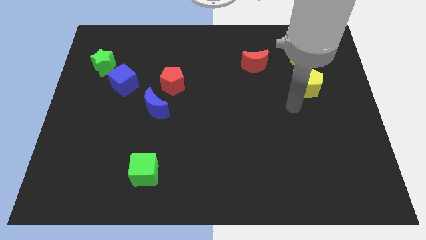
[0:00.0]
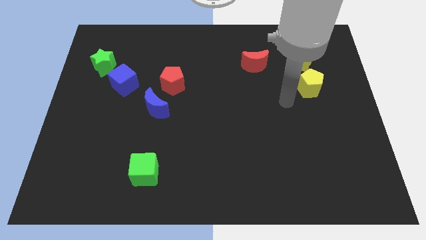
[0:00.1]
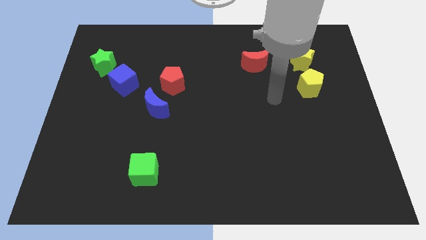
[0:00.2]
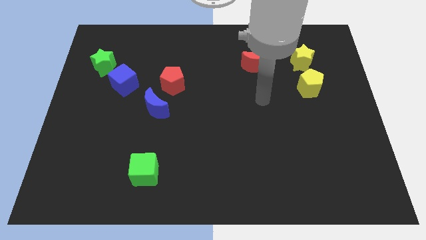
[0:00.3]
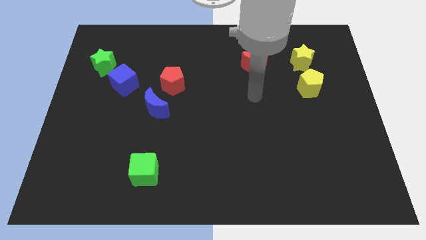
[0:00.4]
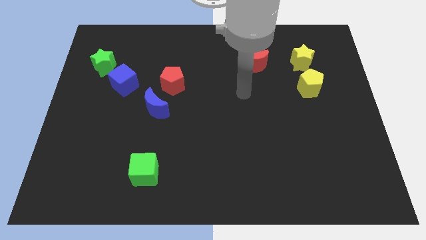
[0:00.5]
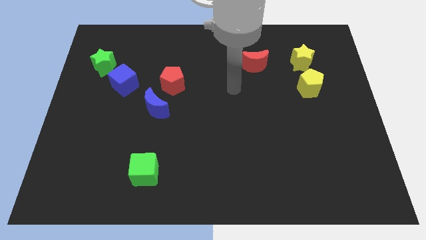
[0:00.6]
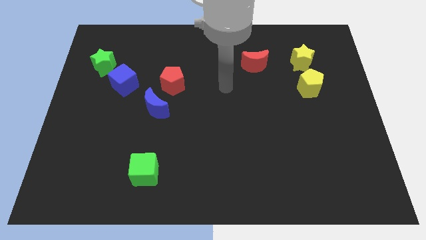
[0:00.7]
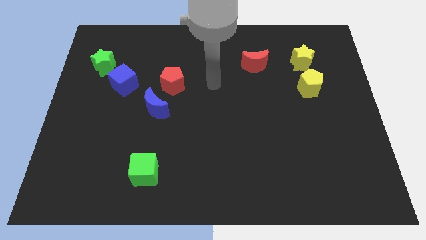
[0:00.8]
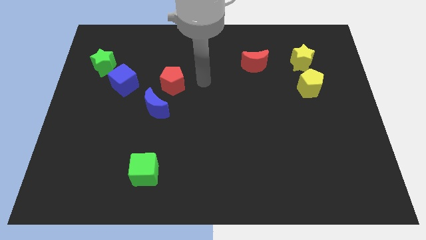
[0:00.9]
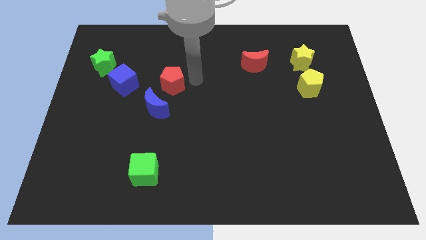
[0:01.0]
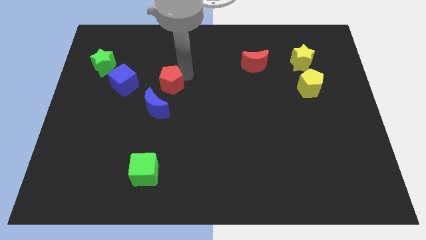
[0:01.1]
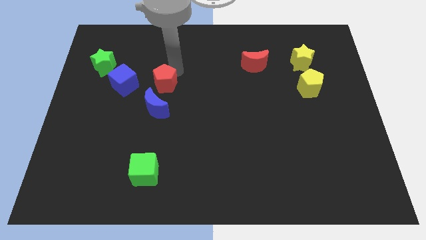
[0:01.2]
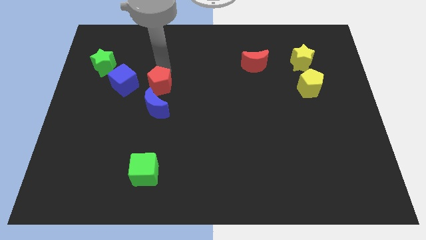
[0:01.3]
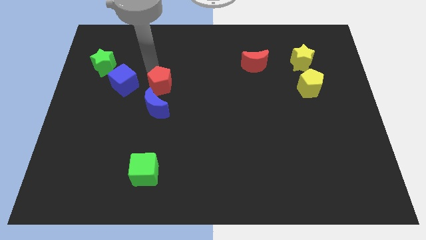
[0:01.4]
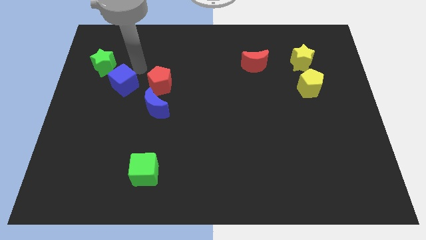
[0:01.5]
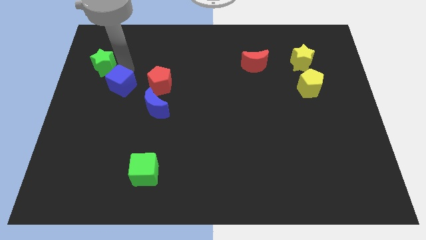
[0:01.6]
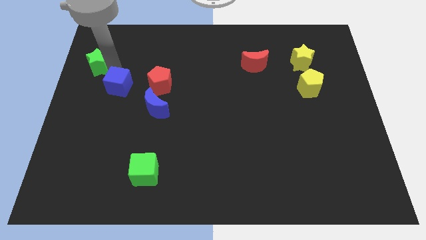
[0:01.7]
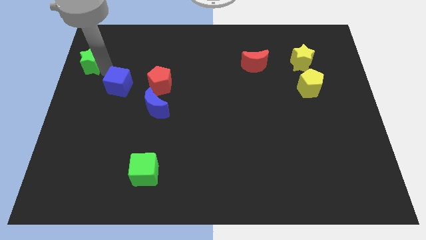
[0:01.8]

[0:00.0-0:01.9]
separate the blue cube from the green star

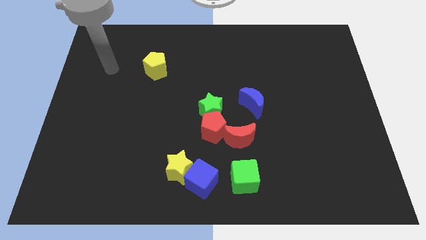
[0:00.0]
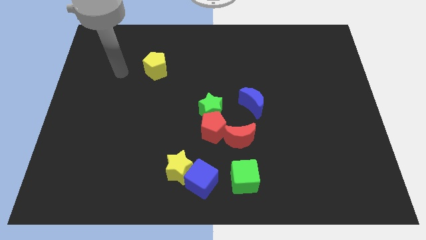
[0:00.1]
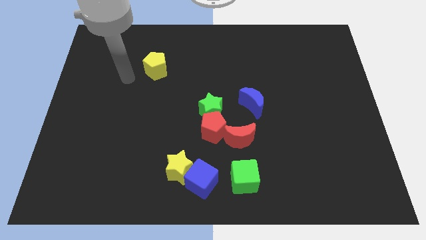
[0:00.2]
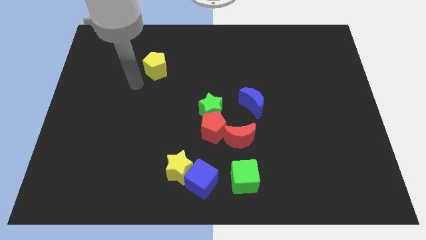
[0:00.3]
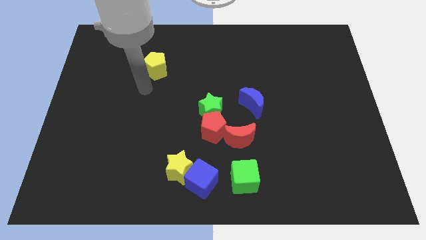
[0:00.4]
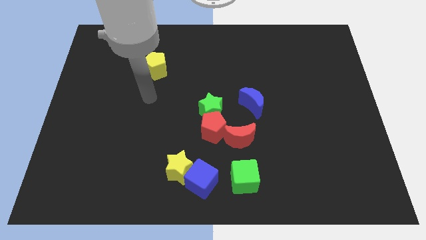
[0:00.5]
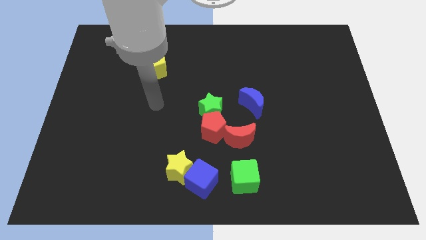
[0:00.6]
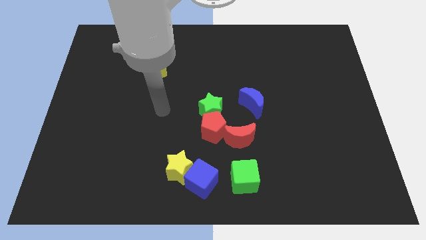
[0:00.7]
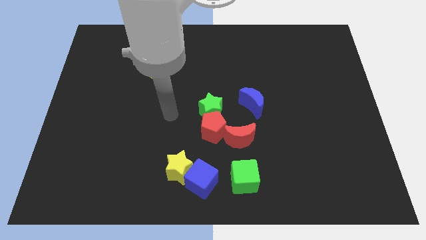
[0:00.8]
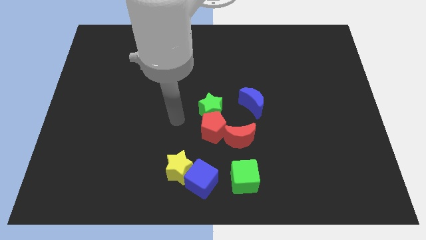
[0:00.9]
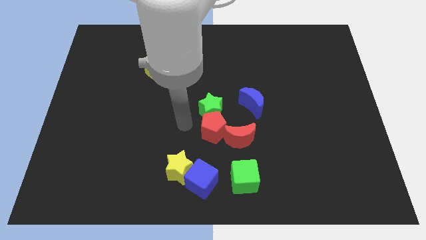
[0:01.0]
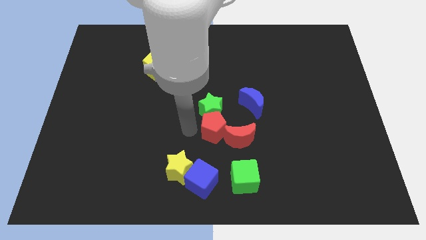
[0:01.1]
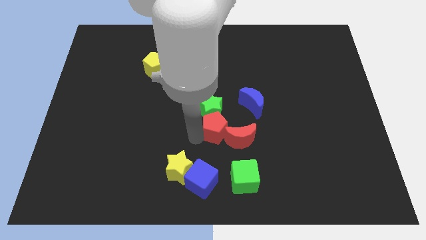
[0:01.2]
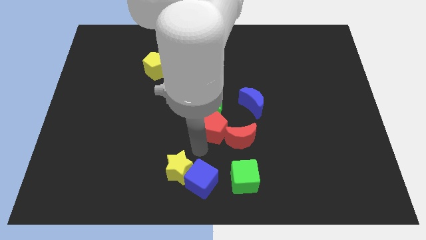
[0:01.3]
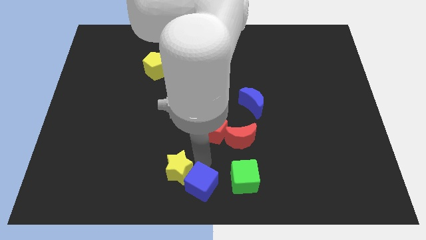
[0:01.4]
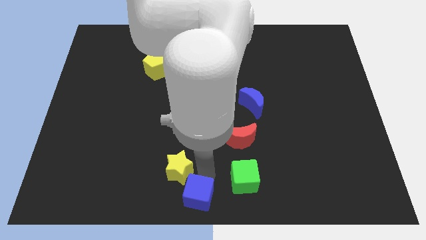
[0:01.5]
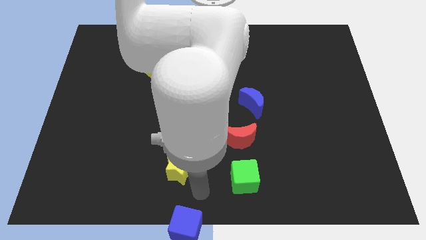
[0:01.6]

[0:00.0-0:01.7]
separate the yellow star from the blue cube

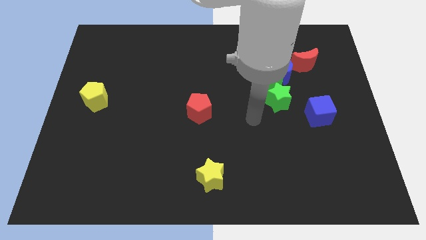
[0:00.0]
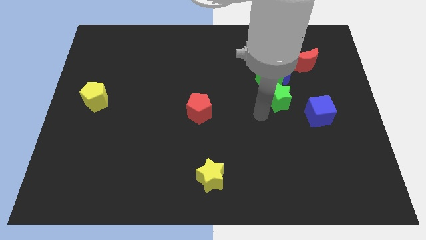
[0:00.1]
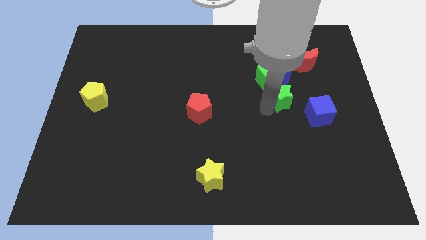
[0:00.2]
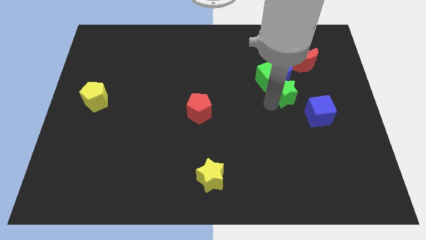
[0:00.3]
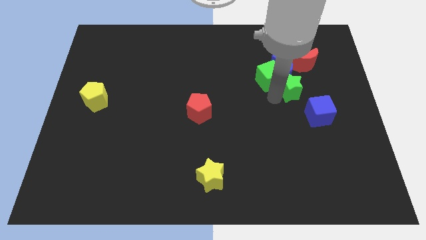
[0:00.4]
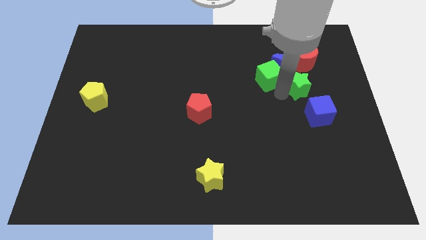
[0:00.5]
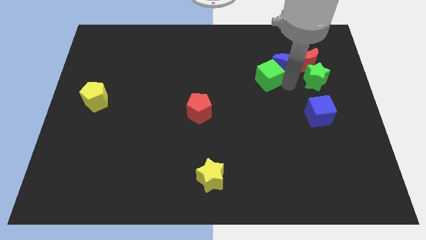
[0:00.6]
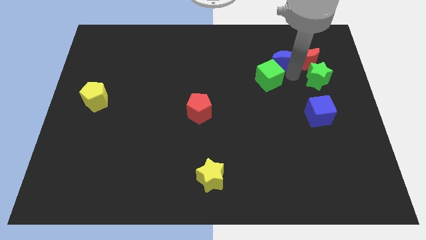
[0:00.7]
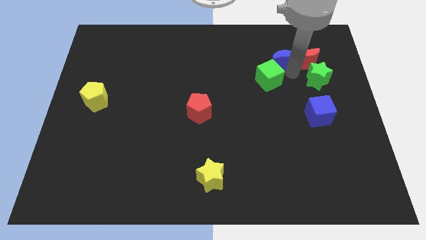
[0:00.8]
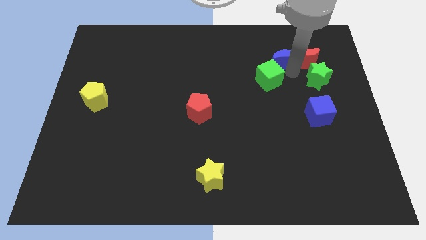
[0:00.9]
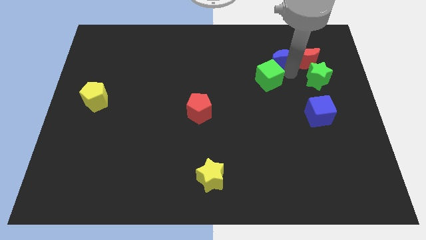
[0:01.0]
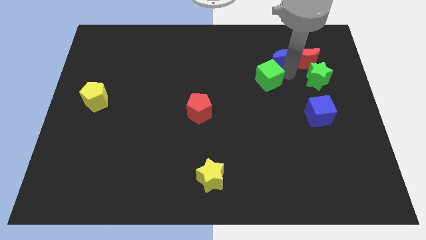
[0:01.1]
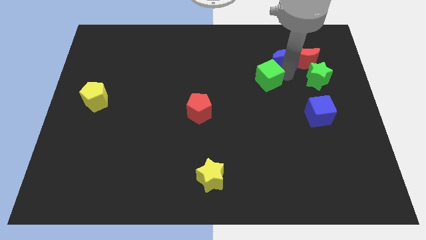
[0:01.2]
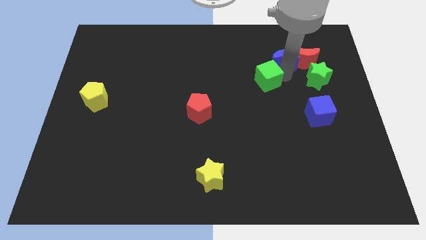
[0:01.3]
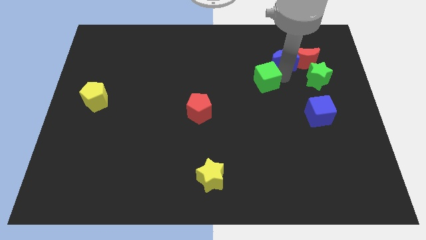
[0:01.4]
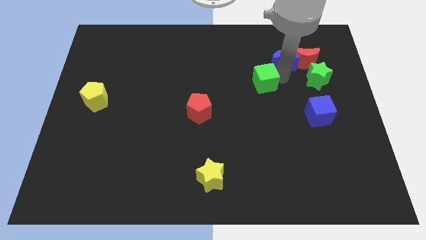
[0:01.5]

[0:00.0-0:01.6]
move the green cube away from the blue moon and green star

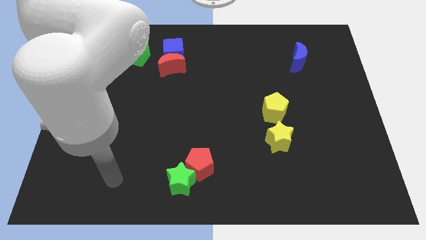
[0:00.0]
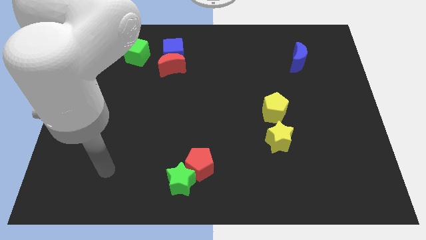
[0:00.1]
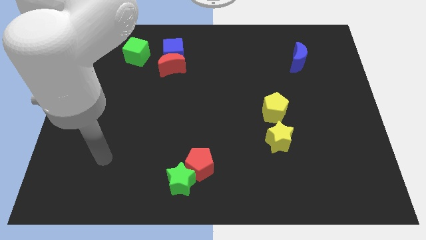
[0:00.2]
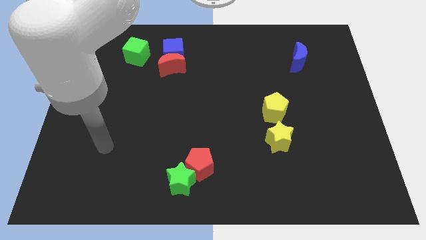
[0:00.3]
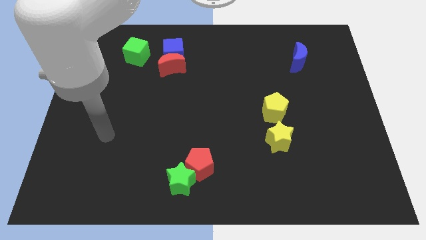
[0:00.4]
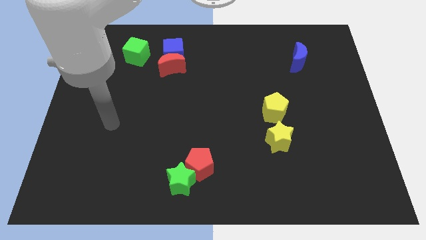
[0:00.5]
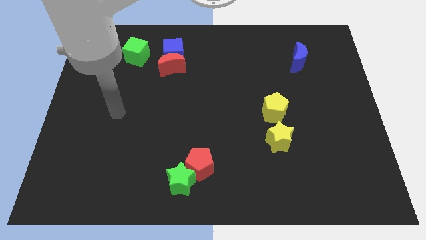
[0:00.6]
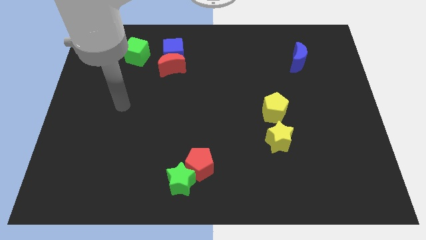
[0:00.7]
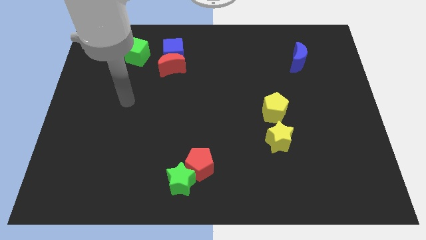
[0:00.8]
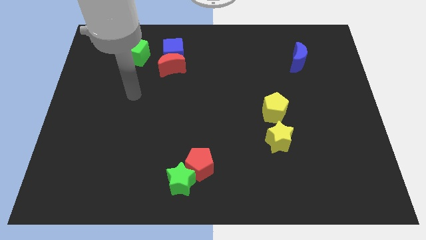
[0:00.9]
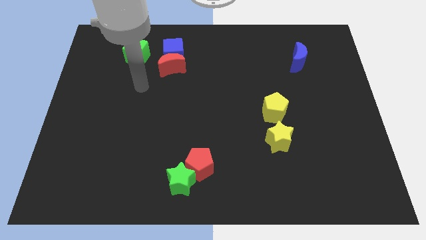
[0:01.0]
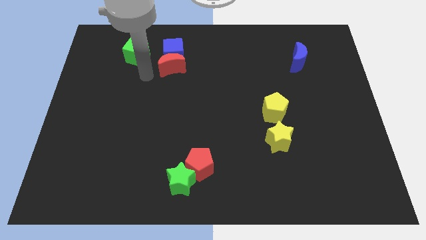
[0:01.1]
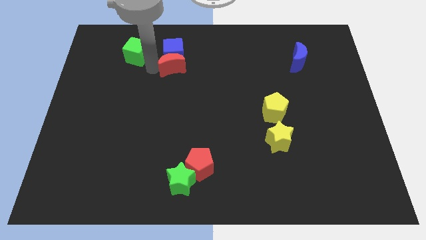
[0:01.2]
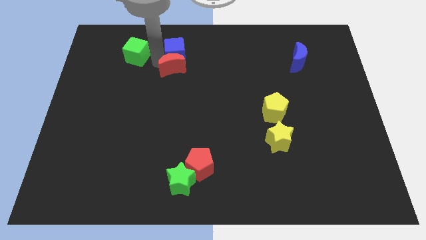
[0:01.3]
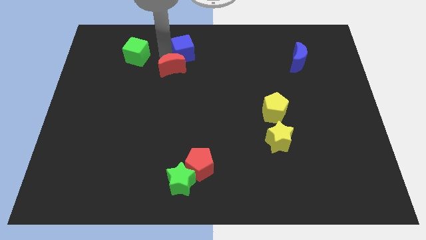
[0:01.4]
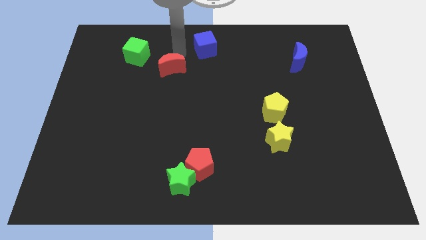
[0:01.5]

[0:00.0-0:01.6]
separate the red moon from the blue cube

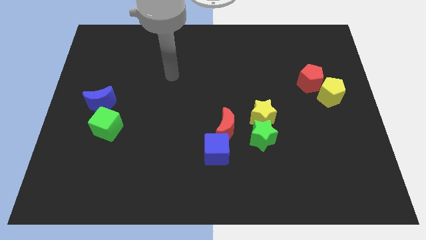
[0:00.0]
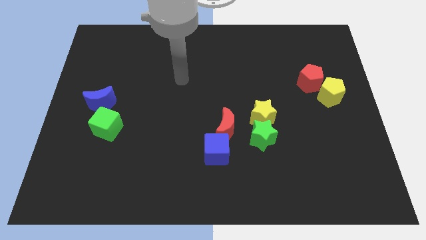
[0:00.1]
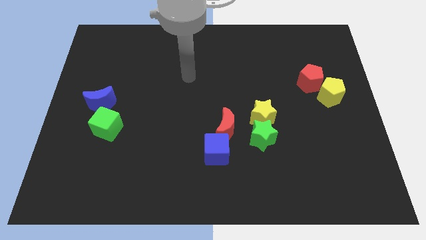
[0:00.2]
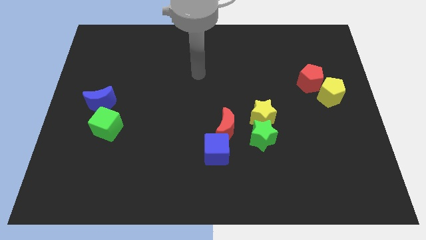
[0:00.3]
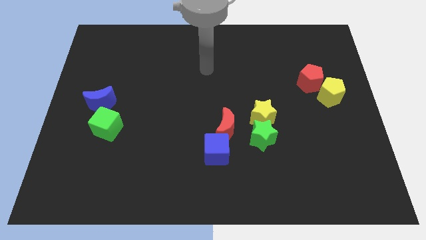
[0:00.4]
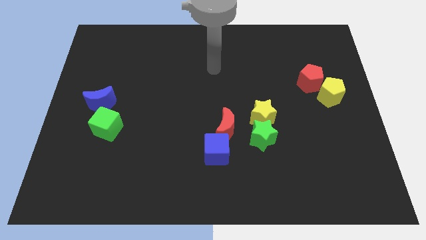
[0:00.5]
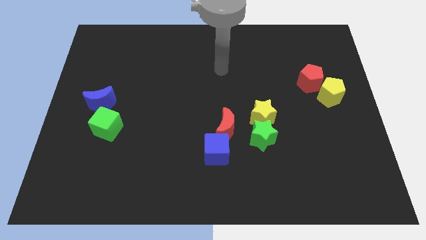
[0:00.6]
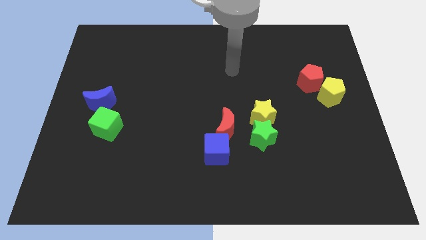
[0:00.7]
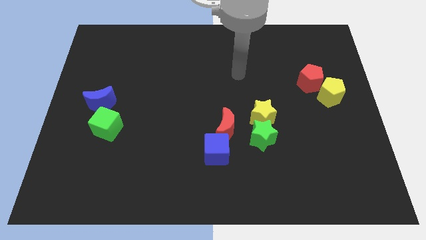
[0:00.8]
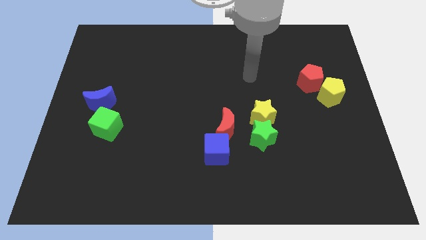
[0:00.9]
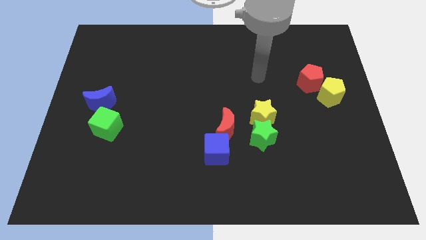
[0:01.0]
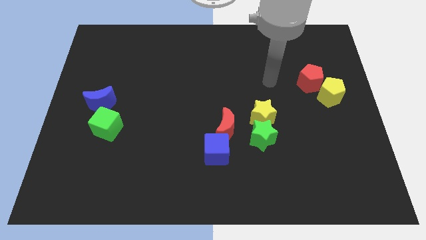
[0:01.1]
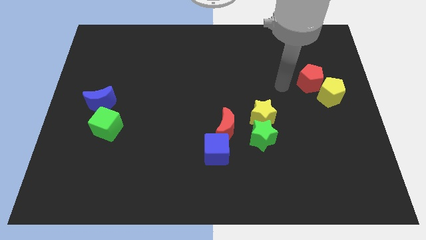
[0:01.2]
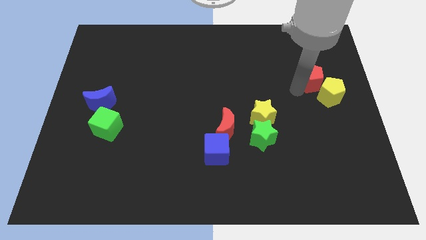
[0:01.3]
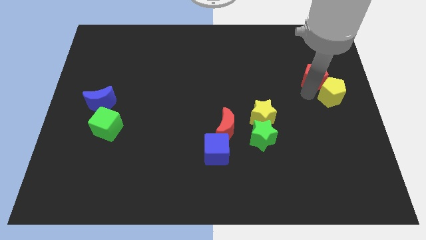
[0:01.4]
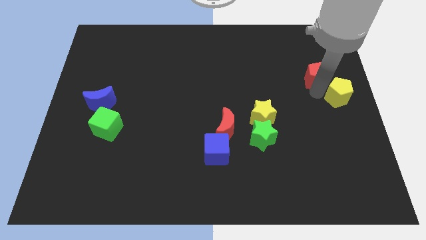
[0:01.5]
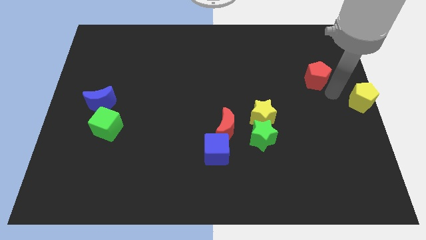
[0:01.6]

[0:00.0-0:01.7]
pull the red pentagon apart from the yellow pentagon

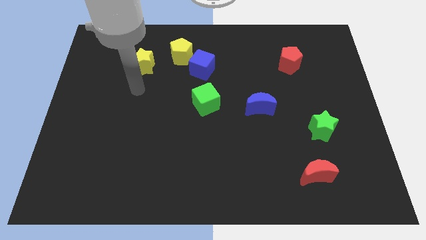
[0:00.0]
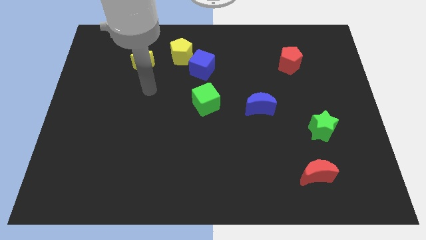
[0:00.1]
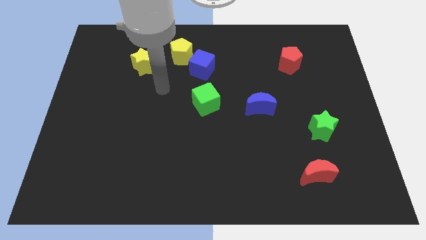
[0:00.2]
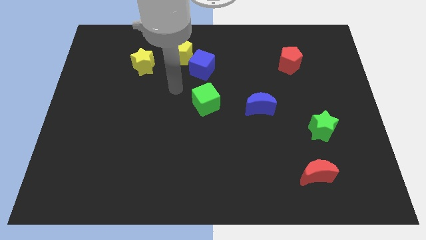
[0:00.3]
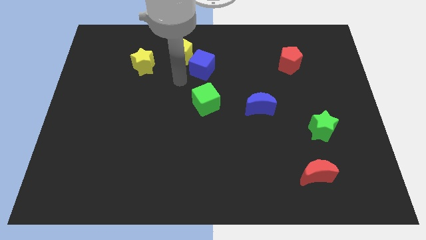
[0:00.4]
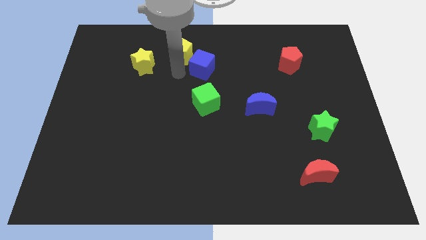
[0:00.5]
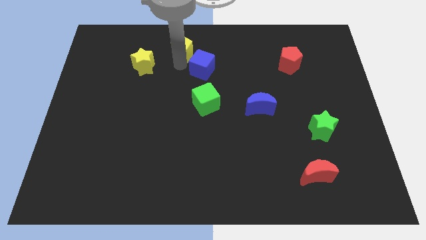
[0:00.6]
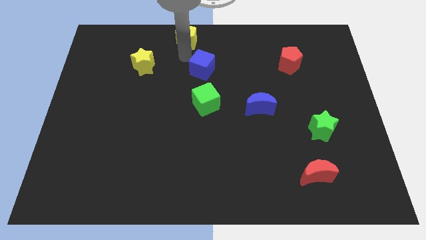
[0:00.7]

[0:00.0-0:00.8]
move the blue cube away from the yellow pentagon
